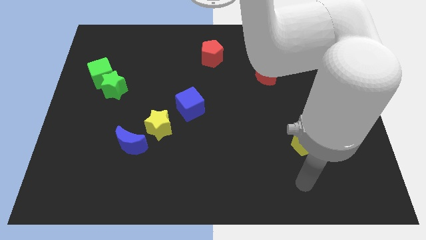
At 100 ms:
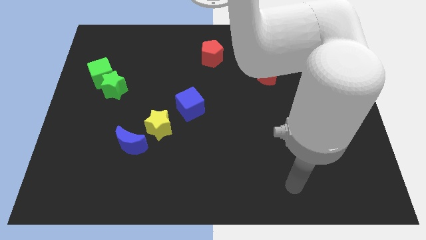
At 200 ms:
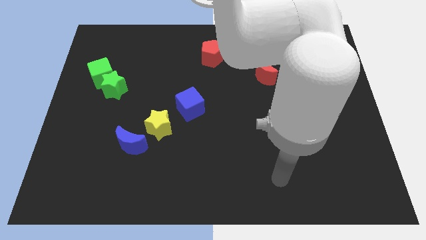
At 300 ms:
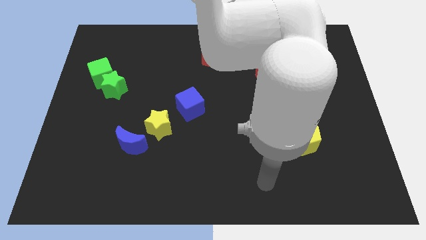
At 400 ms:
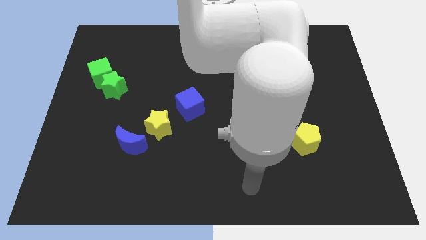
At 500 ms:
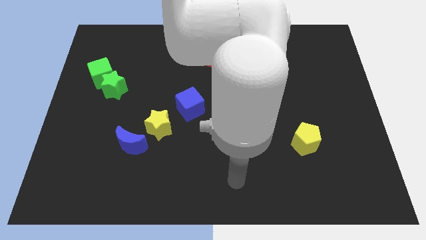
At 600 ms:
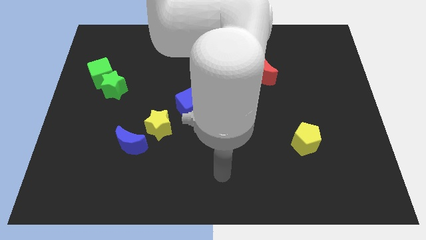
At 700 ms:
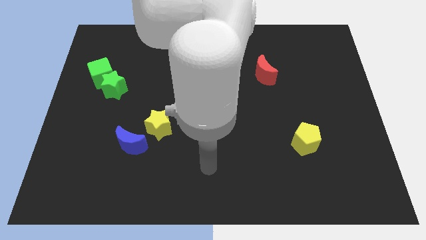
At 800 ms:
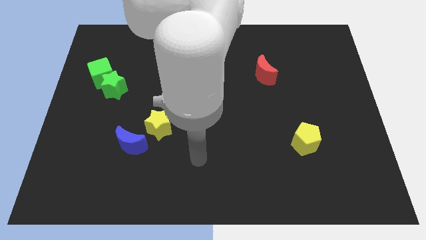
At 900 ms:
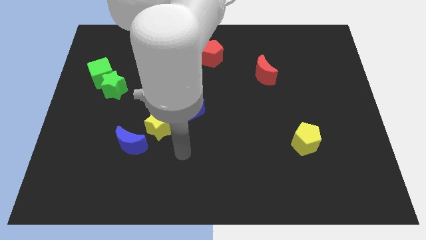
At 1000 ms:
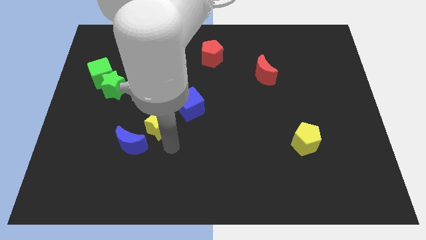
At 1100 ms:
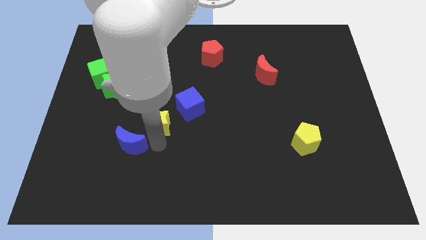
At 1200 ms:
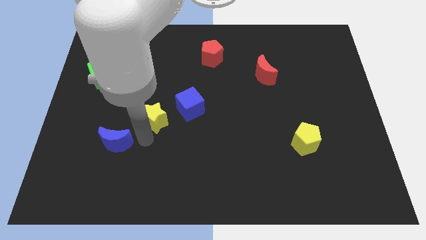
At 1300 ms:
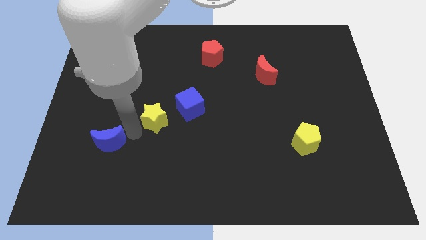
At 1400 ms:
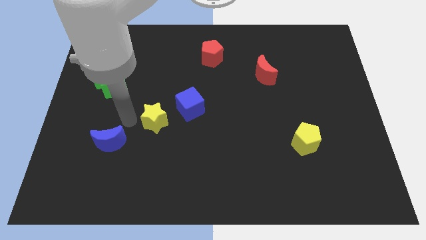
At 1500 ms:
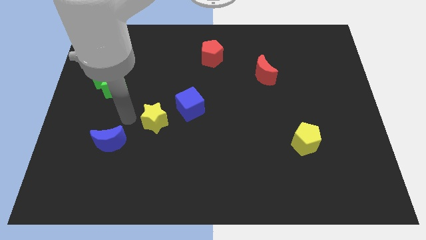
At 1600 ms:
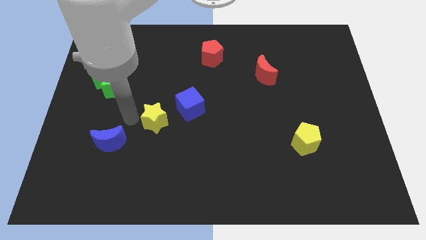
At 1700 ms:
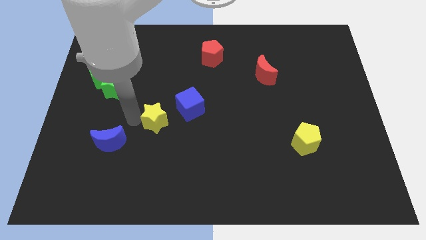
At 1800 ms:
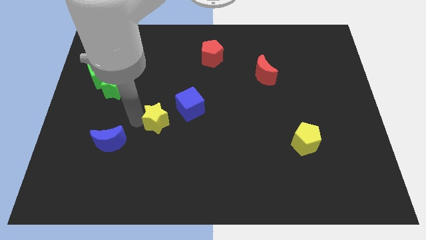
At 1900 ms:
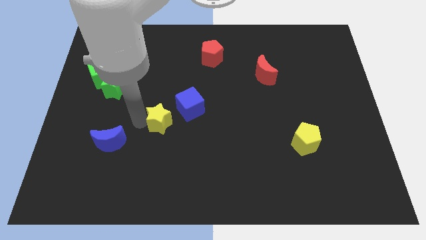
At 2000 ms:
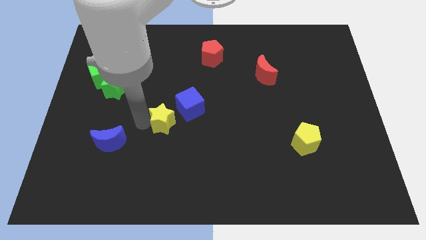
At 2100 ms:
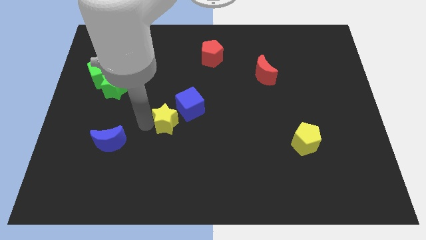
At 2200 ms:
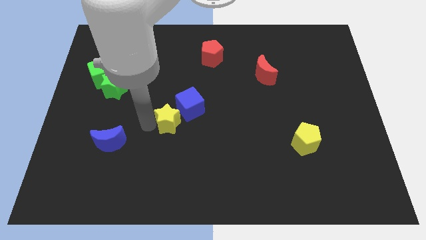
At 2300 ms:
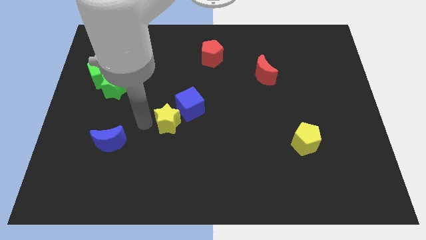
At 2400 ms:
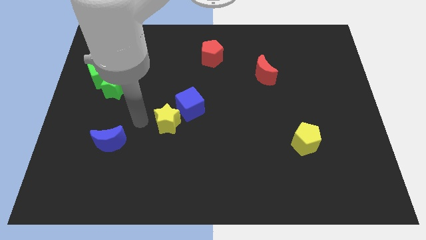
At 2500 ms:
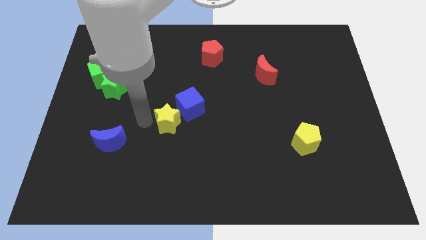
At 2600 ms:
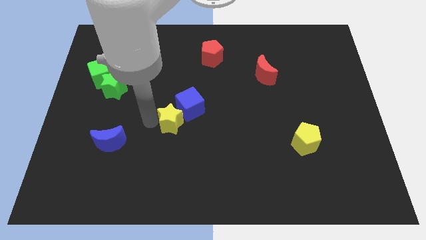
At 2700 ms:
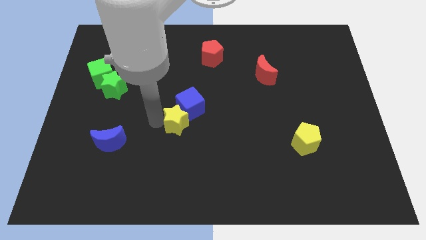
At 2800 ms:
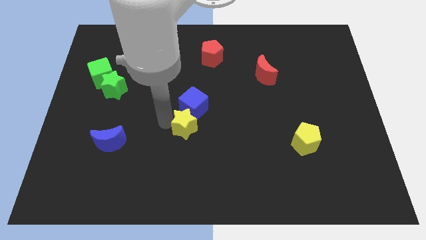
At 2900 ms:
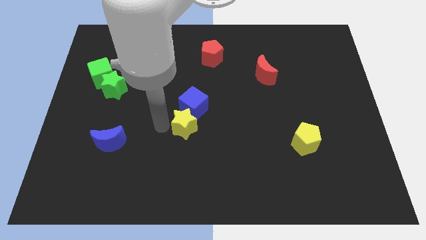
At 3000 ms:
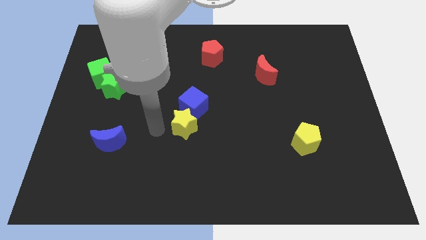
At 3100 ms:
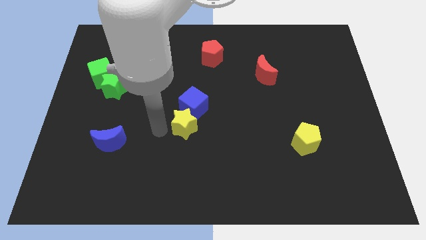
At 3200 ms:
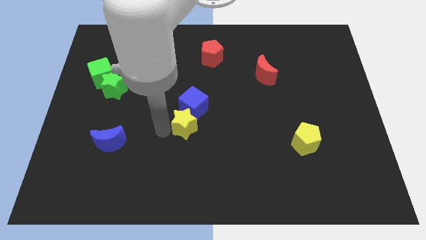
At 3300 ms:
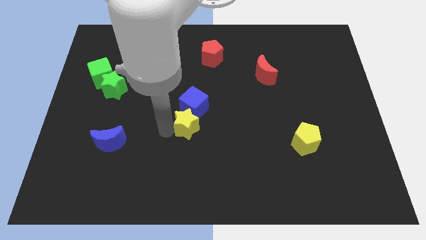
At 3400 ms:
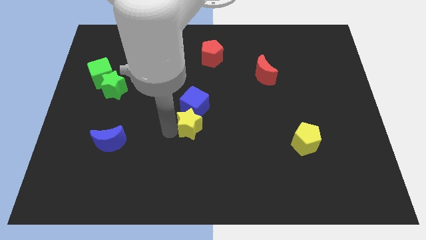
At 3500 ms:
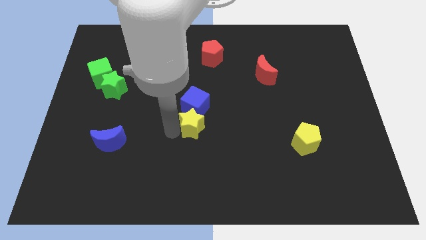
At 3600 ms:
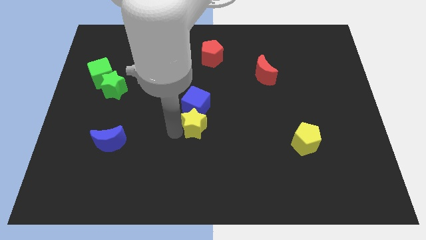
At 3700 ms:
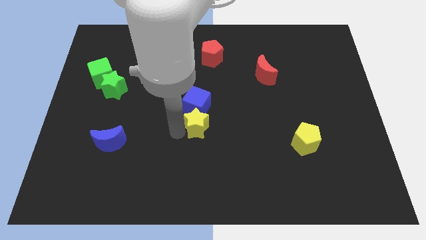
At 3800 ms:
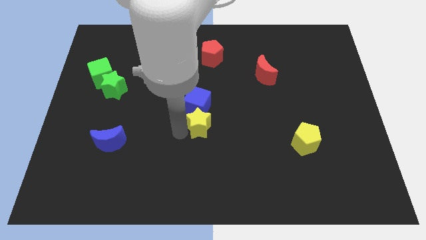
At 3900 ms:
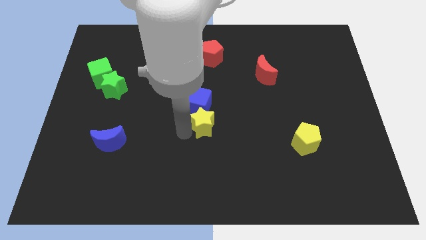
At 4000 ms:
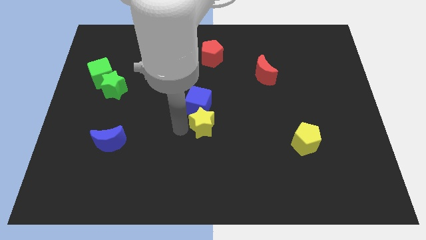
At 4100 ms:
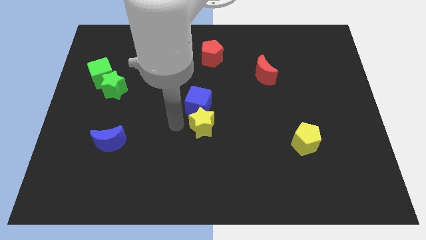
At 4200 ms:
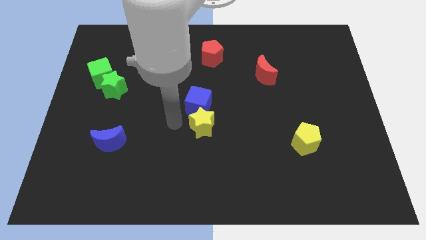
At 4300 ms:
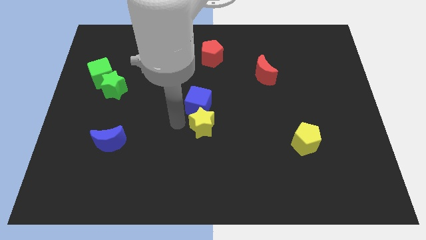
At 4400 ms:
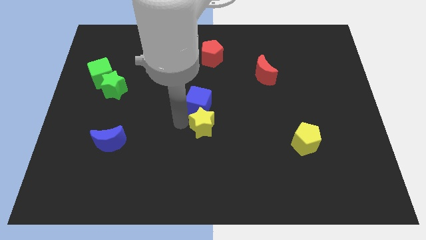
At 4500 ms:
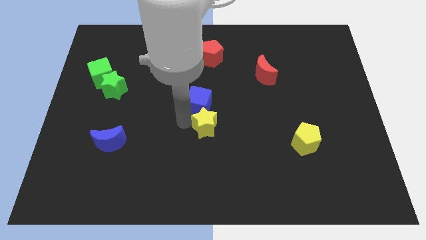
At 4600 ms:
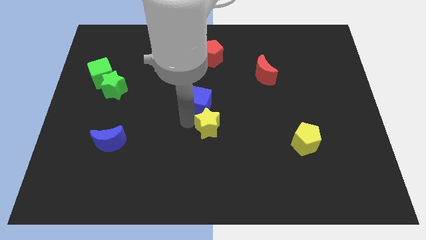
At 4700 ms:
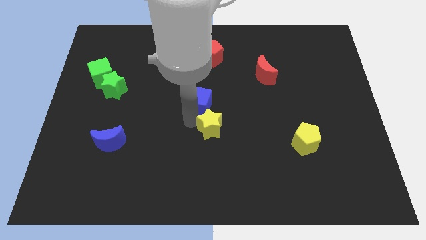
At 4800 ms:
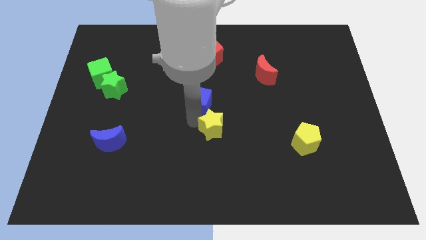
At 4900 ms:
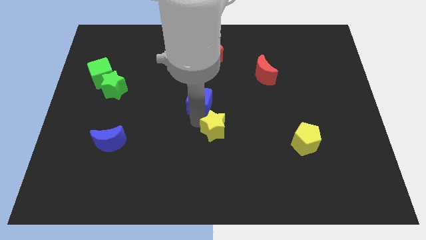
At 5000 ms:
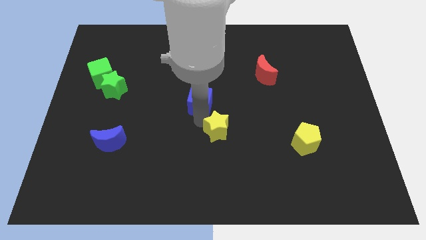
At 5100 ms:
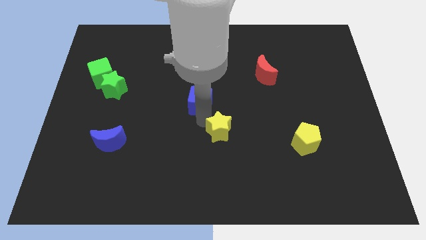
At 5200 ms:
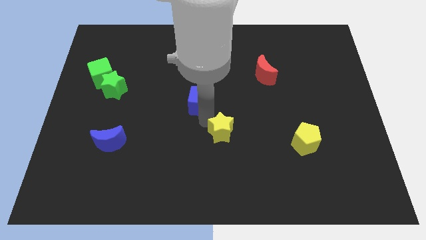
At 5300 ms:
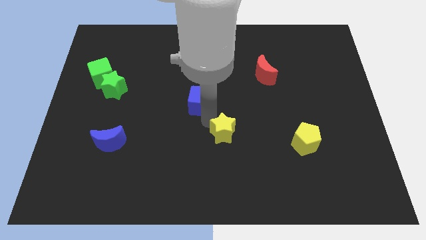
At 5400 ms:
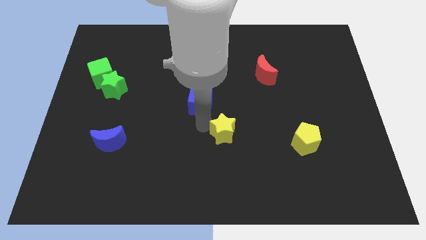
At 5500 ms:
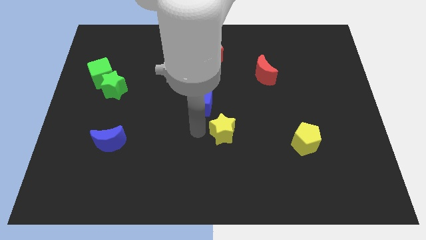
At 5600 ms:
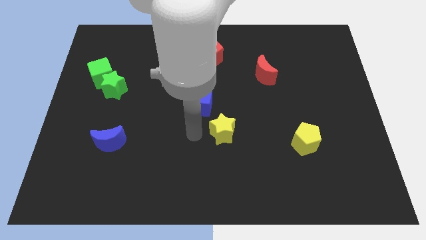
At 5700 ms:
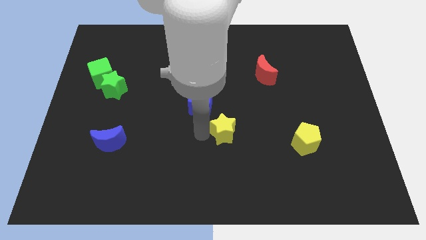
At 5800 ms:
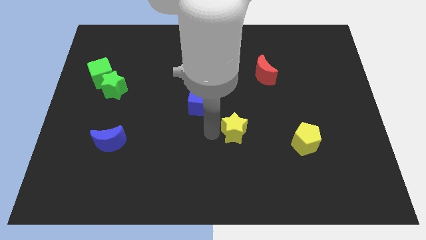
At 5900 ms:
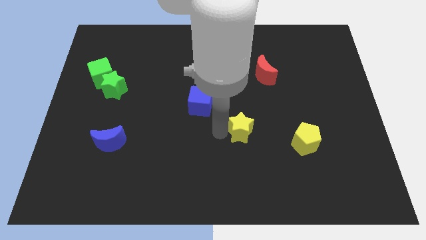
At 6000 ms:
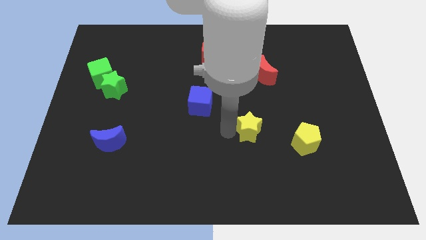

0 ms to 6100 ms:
push the yellow star to the right

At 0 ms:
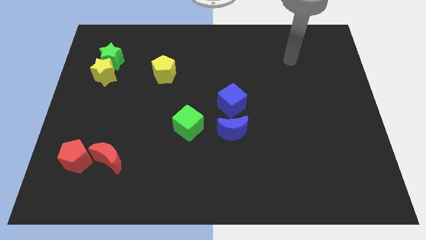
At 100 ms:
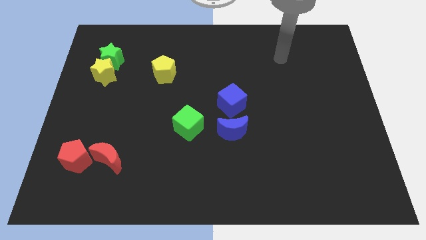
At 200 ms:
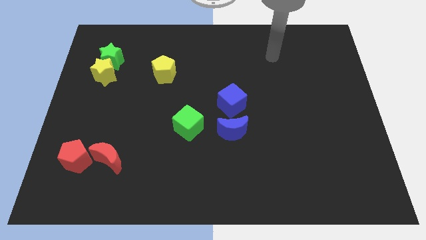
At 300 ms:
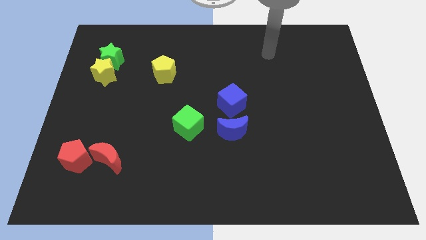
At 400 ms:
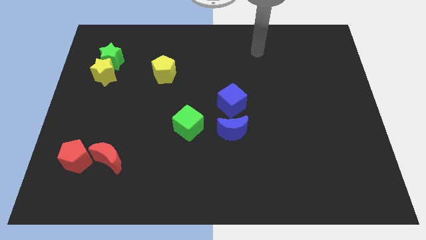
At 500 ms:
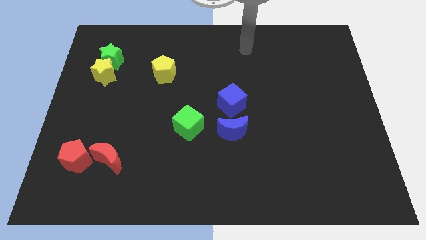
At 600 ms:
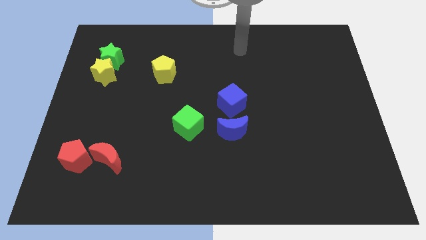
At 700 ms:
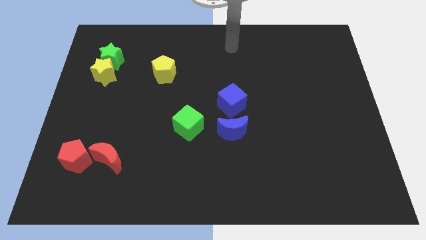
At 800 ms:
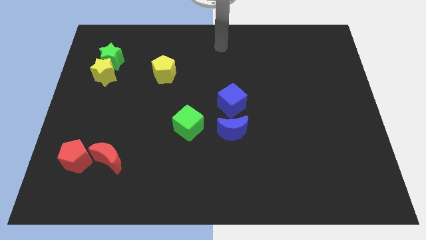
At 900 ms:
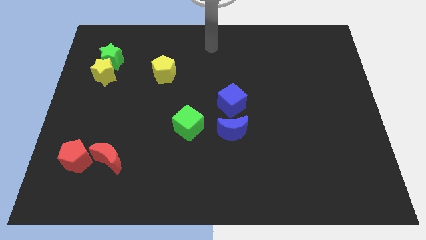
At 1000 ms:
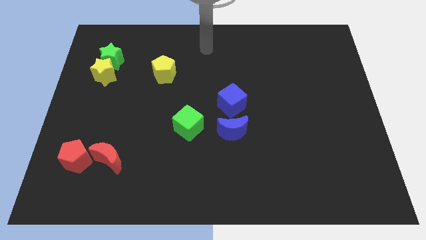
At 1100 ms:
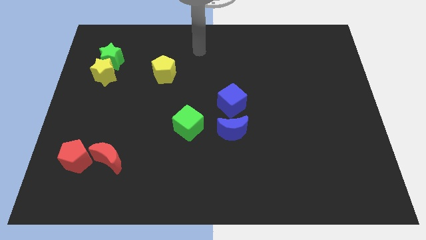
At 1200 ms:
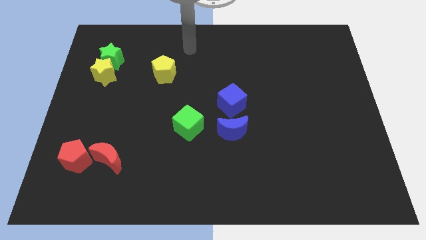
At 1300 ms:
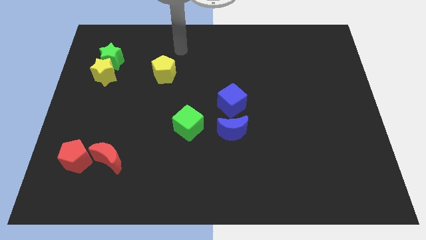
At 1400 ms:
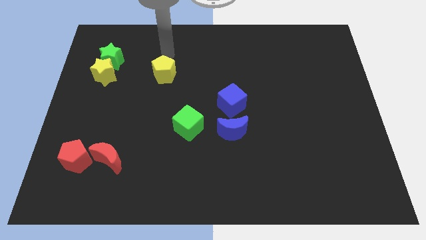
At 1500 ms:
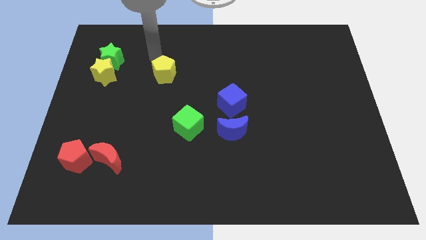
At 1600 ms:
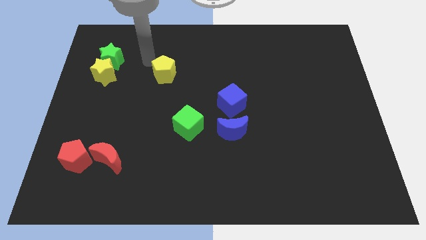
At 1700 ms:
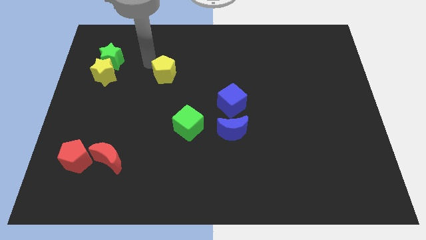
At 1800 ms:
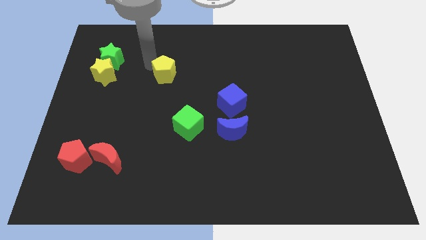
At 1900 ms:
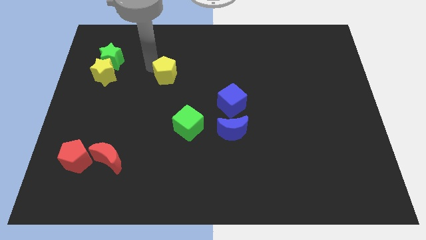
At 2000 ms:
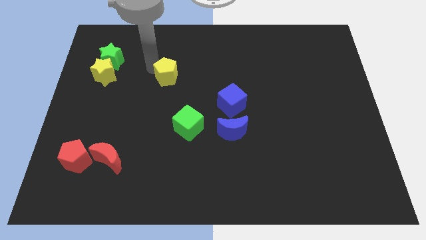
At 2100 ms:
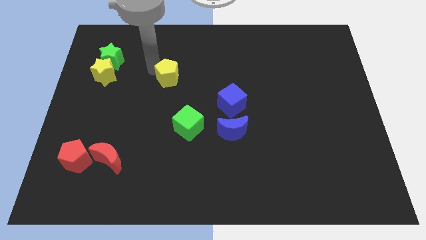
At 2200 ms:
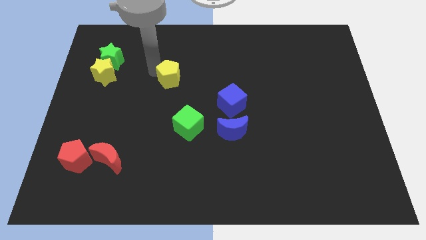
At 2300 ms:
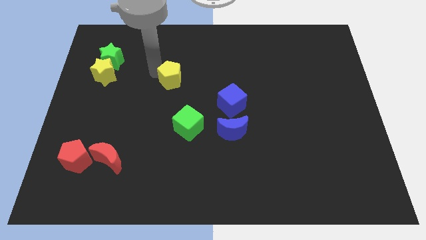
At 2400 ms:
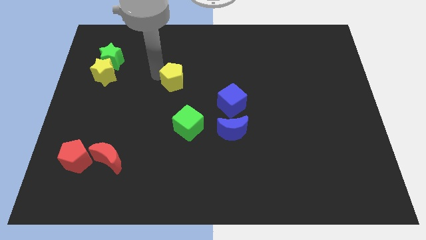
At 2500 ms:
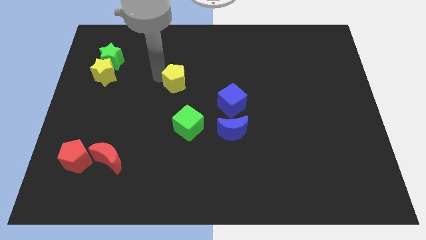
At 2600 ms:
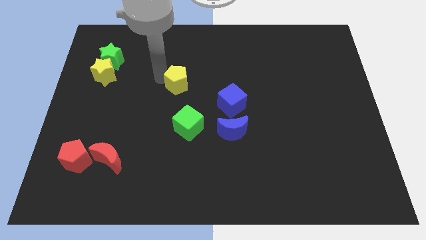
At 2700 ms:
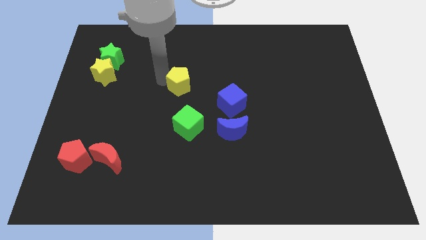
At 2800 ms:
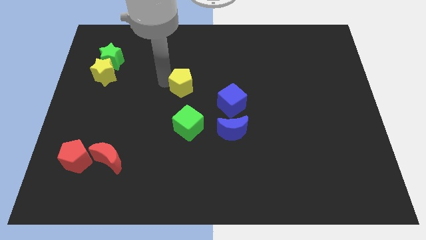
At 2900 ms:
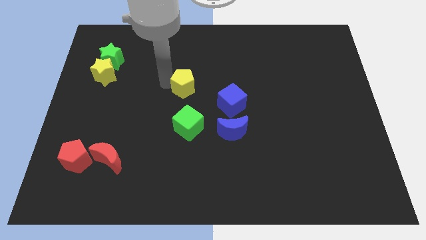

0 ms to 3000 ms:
slightly push the yellow pentagon downwards and right
